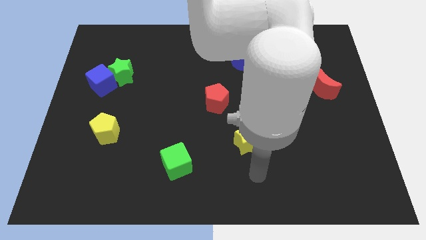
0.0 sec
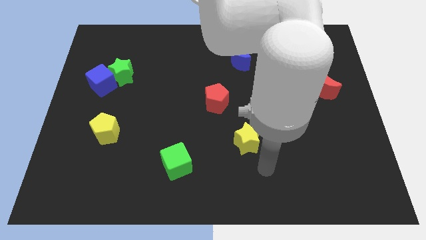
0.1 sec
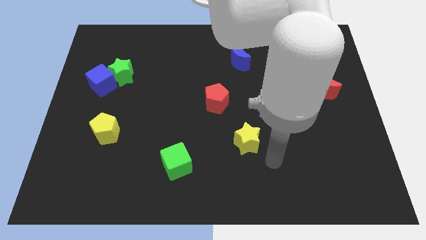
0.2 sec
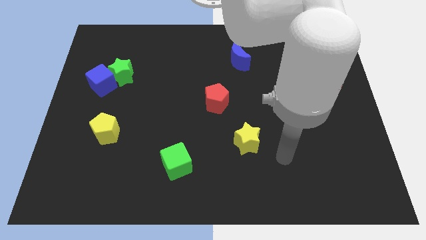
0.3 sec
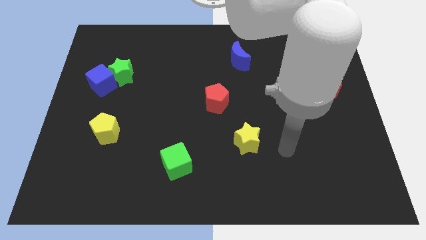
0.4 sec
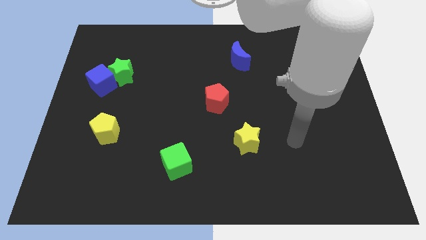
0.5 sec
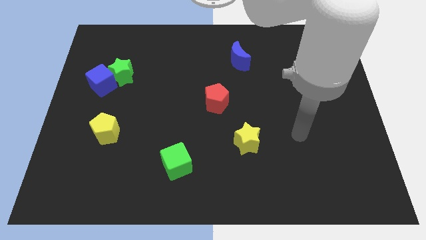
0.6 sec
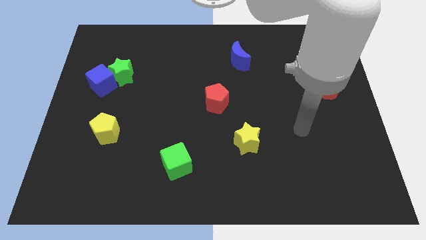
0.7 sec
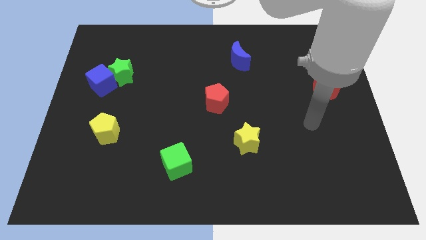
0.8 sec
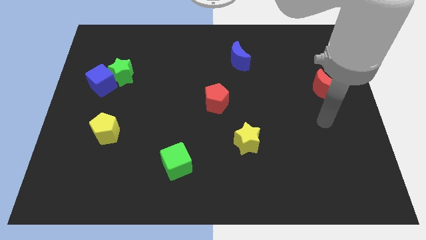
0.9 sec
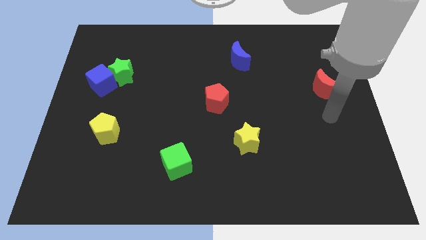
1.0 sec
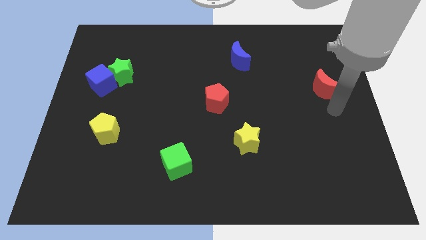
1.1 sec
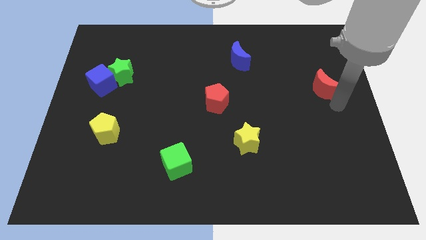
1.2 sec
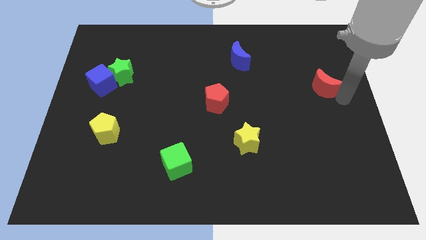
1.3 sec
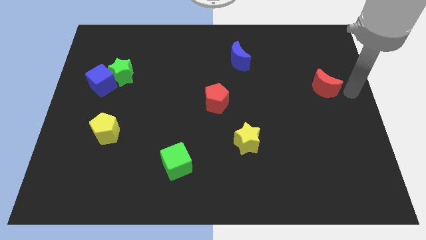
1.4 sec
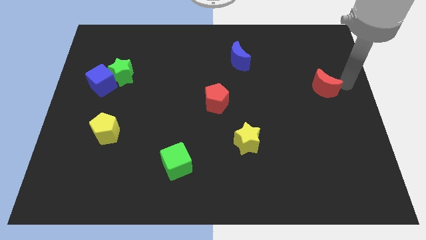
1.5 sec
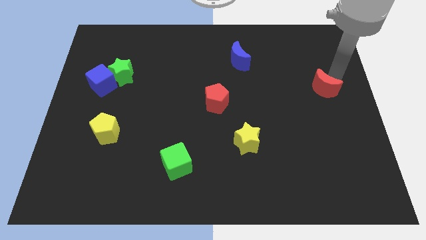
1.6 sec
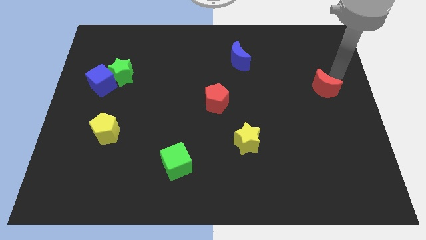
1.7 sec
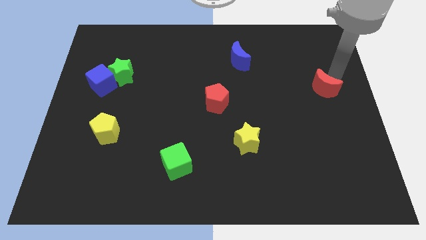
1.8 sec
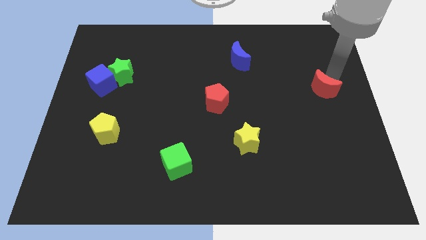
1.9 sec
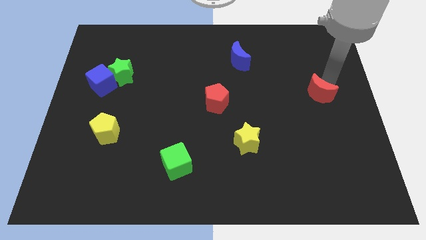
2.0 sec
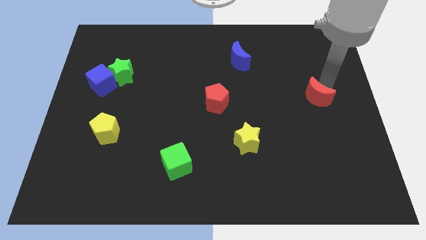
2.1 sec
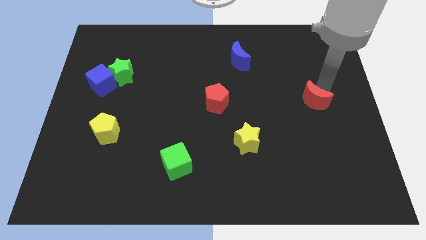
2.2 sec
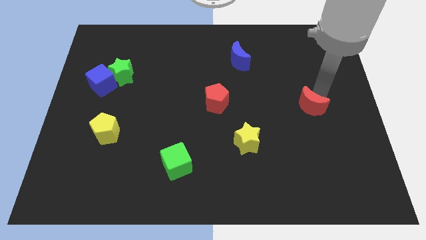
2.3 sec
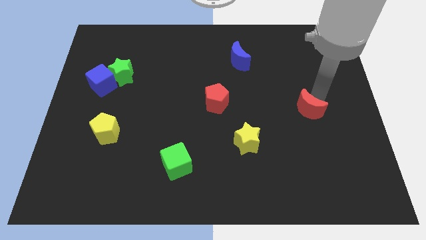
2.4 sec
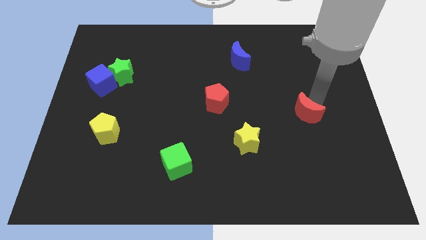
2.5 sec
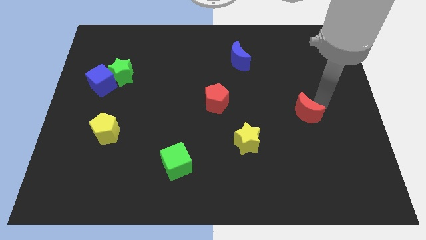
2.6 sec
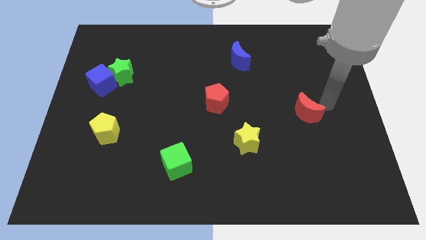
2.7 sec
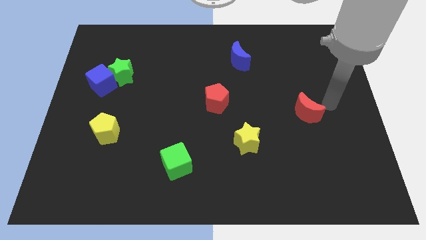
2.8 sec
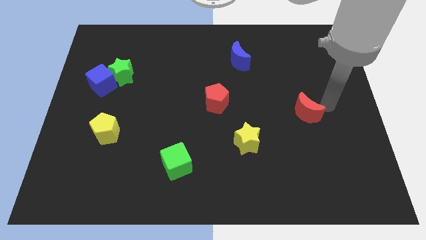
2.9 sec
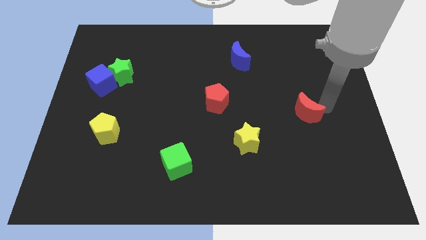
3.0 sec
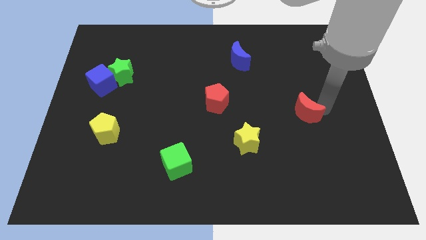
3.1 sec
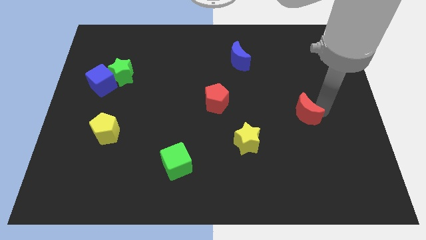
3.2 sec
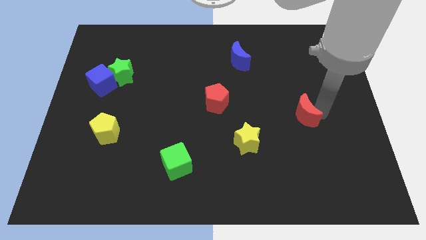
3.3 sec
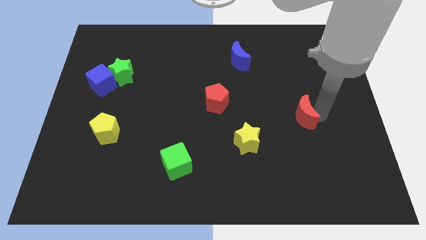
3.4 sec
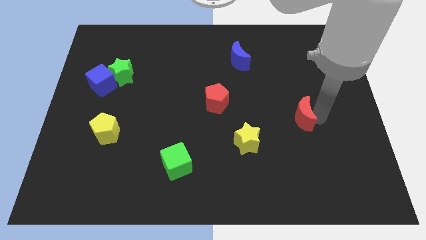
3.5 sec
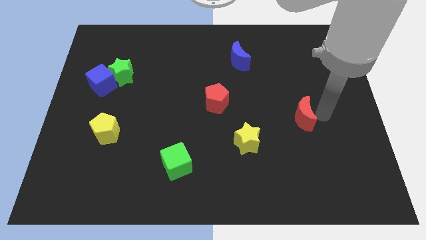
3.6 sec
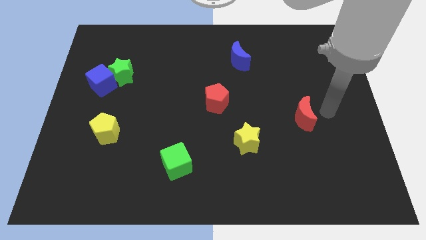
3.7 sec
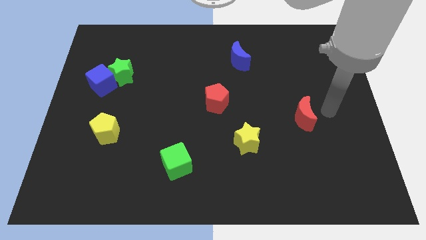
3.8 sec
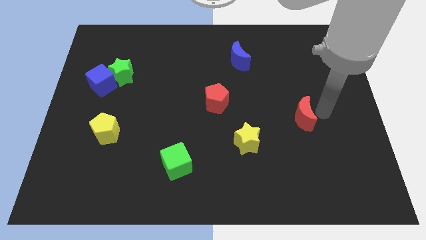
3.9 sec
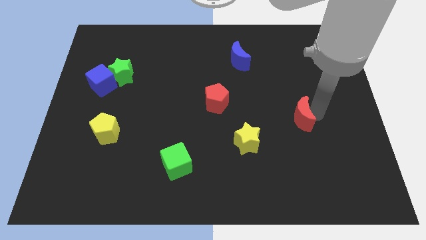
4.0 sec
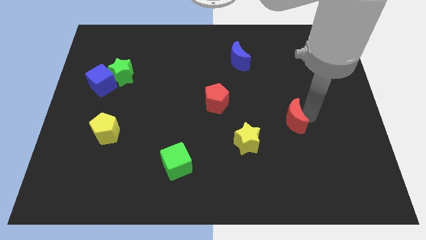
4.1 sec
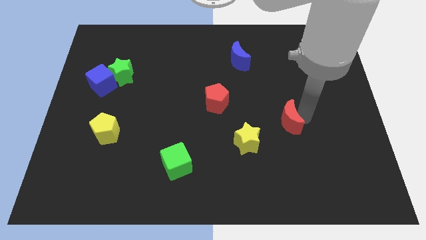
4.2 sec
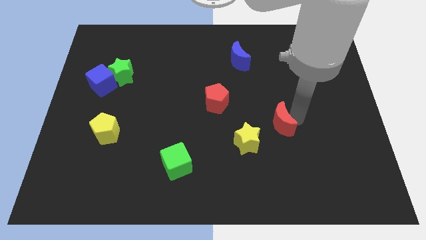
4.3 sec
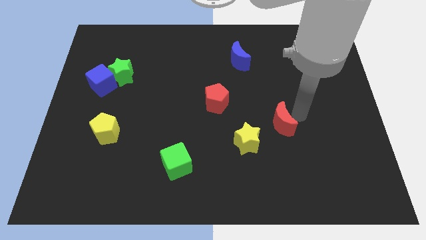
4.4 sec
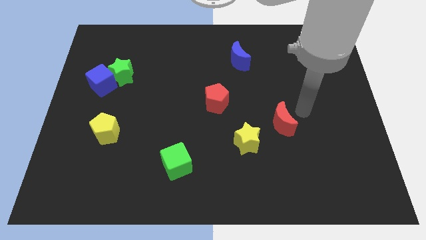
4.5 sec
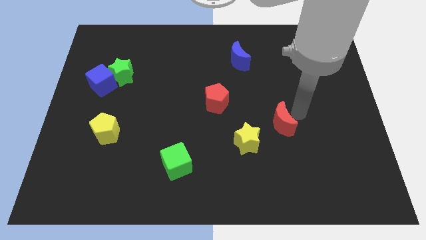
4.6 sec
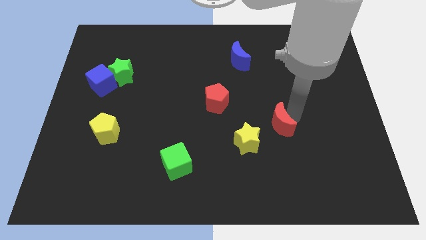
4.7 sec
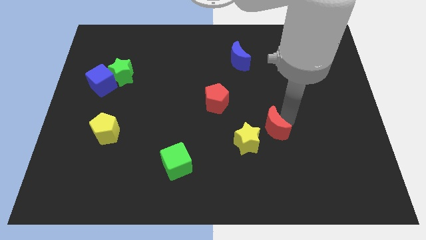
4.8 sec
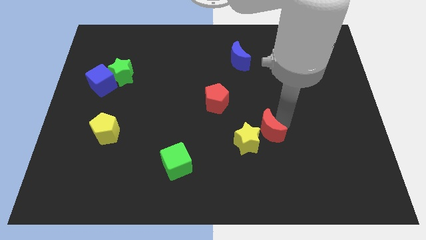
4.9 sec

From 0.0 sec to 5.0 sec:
slide the red moon towards the yellow star

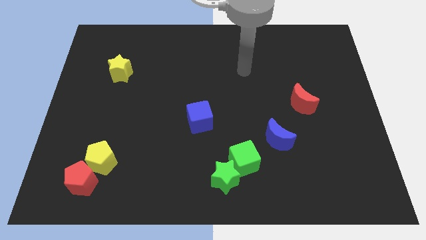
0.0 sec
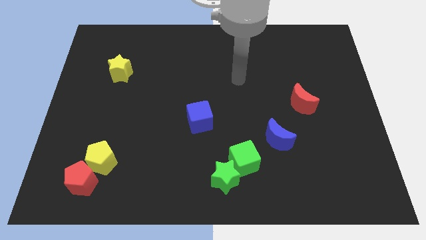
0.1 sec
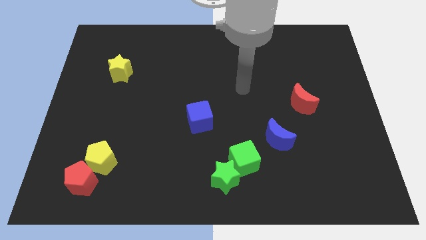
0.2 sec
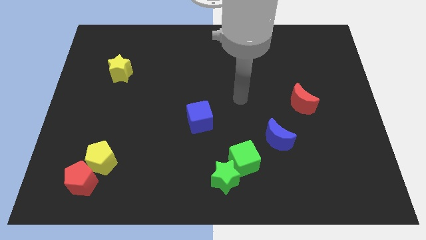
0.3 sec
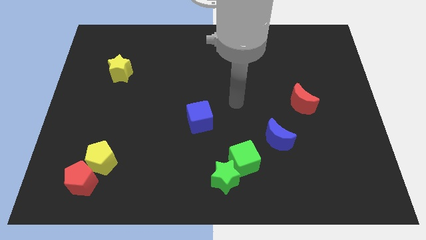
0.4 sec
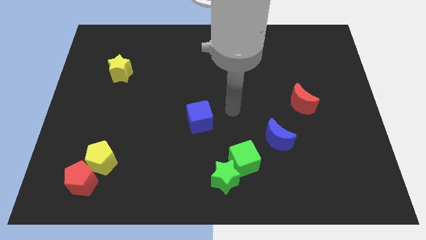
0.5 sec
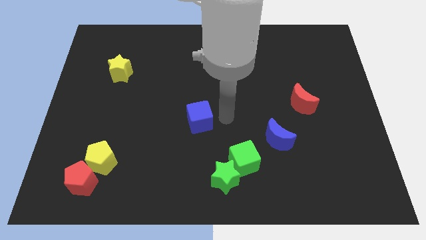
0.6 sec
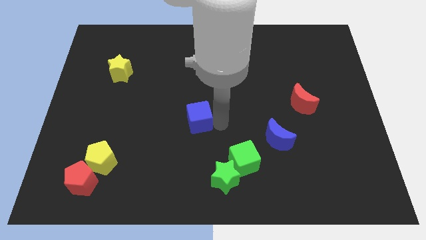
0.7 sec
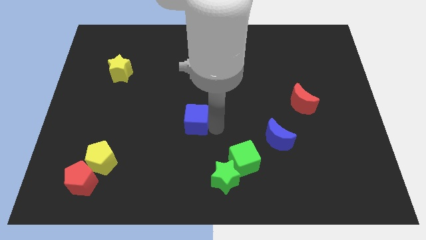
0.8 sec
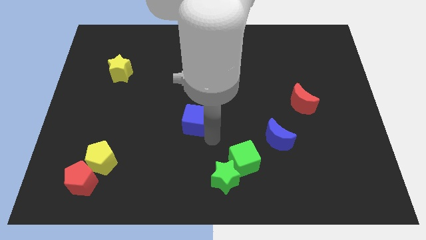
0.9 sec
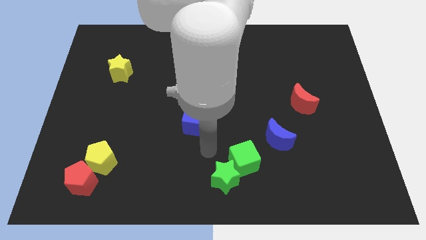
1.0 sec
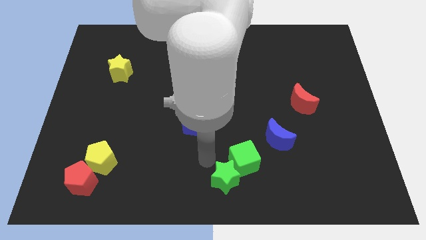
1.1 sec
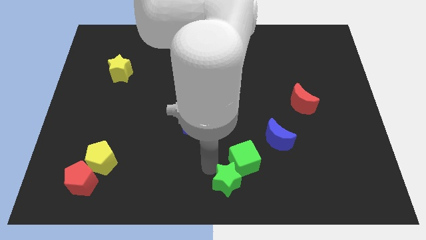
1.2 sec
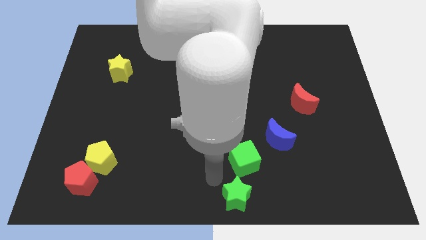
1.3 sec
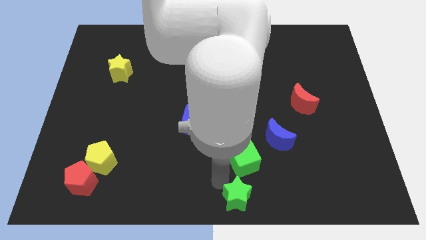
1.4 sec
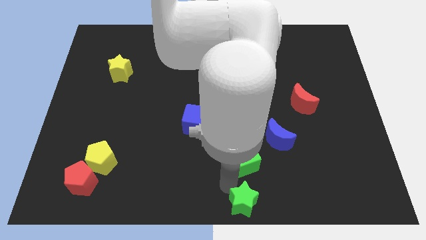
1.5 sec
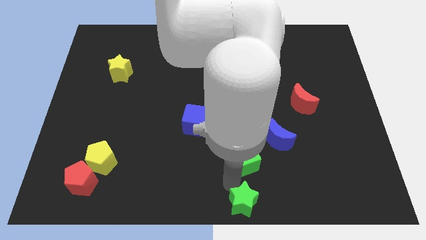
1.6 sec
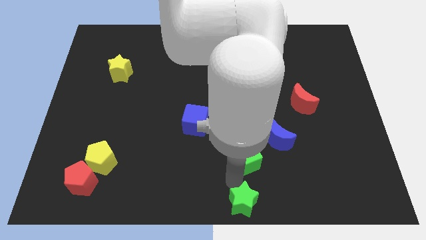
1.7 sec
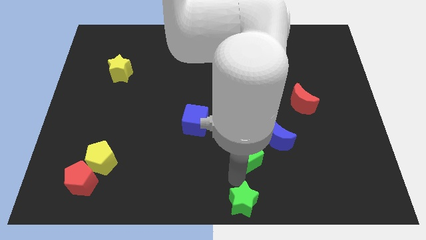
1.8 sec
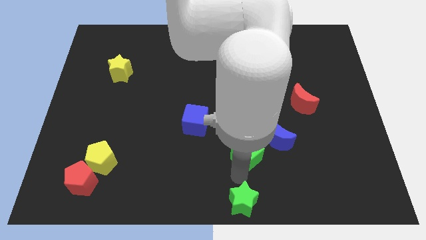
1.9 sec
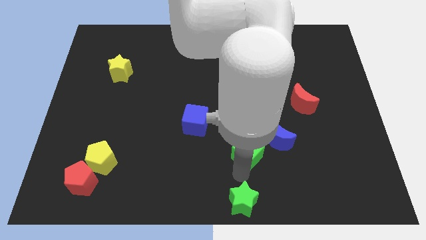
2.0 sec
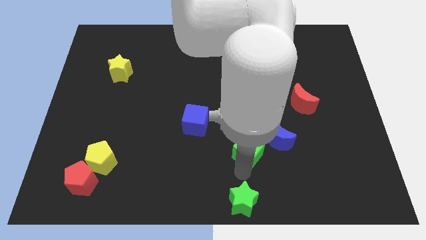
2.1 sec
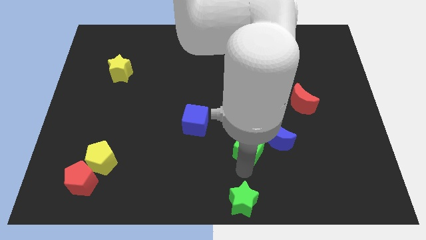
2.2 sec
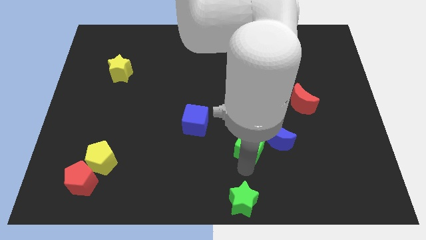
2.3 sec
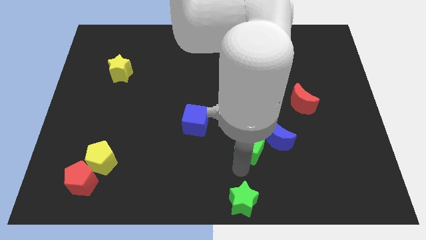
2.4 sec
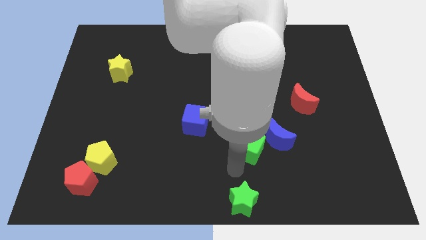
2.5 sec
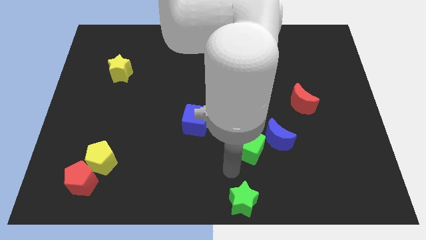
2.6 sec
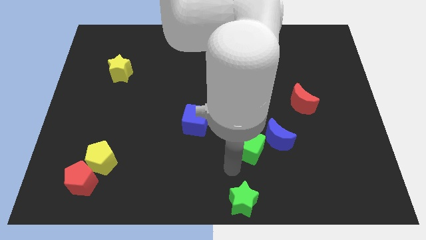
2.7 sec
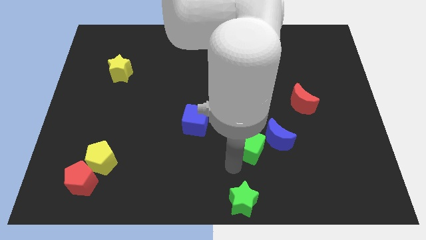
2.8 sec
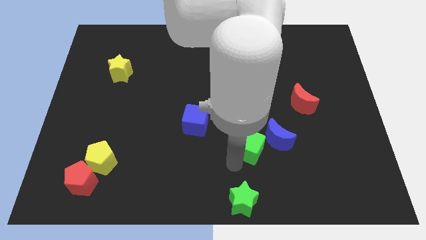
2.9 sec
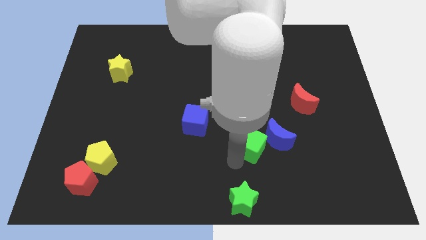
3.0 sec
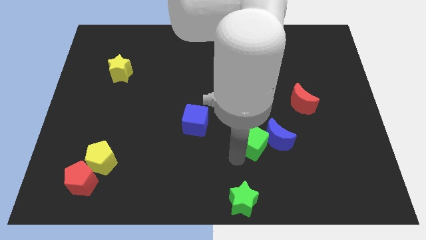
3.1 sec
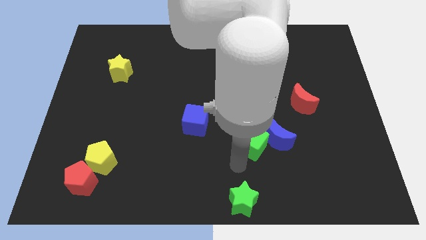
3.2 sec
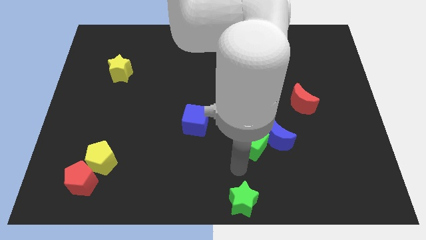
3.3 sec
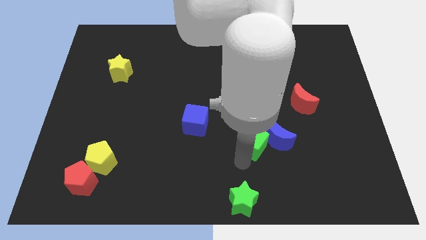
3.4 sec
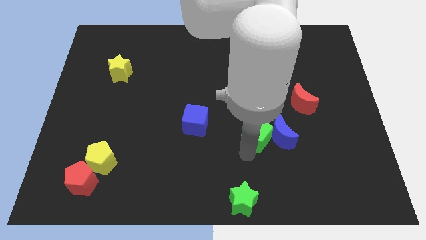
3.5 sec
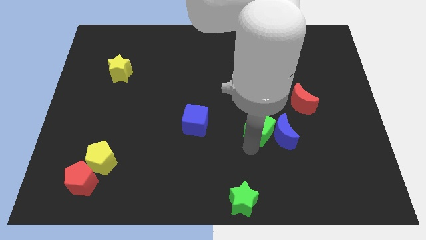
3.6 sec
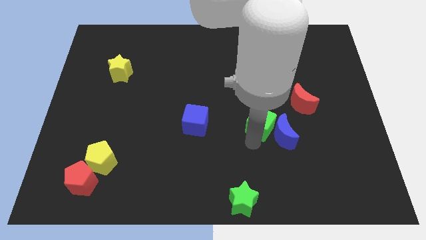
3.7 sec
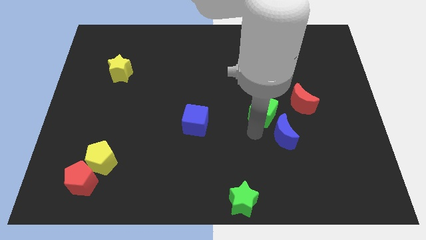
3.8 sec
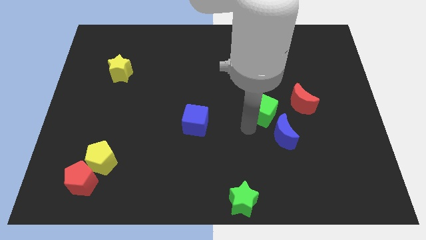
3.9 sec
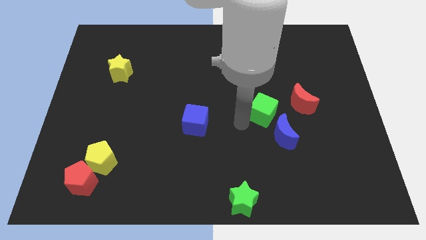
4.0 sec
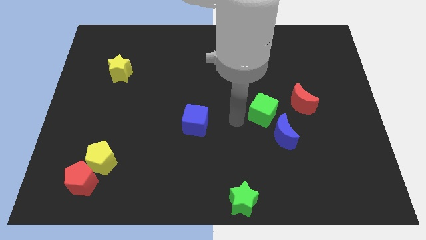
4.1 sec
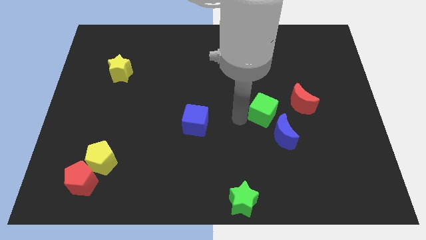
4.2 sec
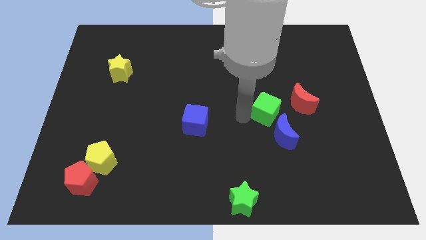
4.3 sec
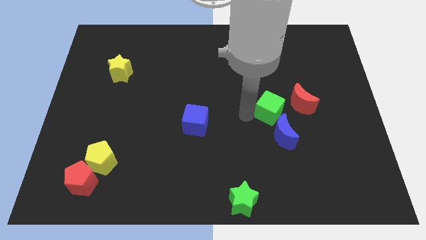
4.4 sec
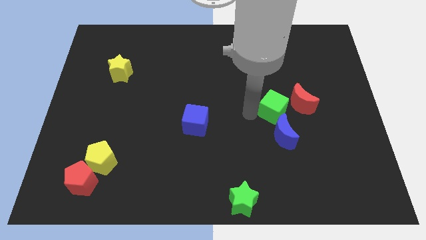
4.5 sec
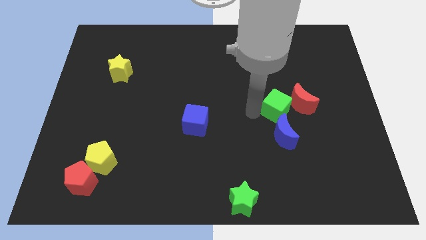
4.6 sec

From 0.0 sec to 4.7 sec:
push the green cube to the red moon
